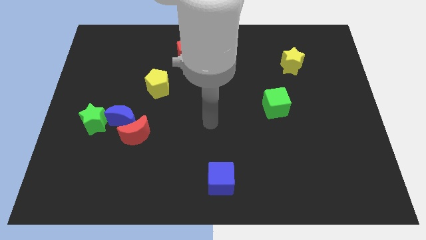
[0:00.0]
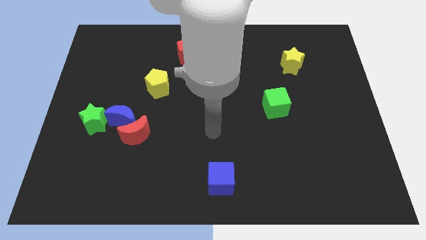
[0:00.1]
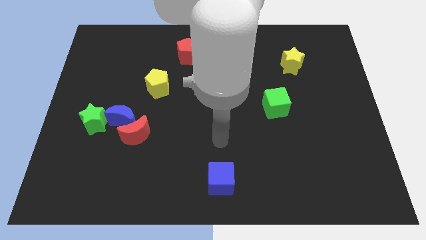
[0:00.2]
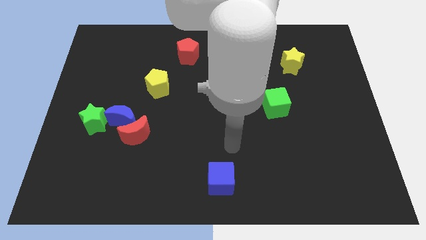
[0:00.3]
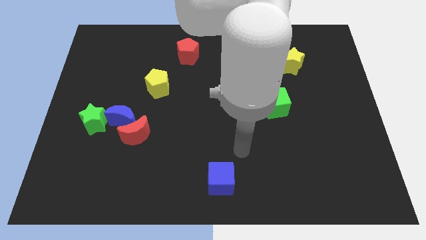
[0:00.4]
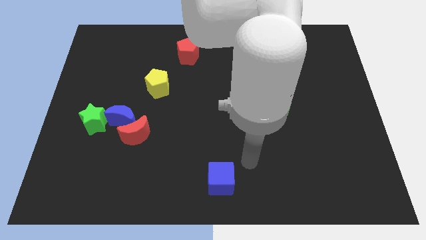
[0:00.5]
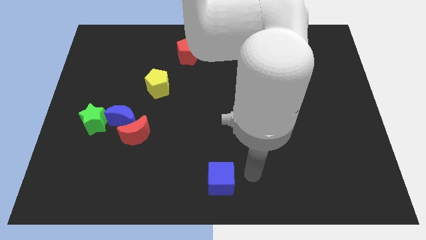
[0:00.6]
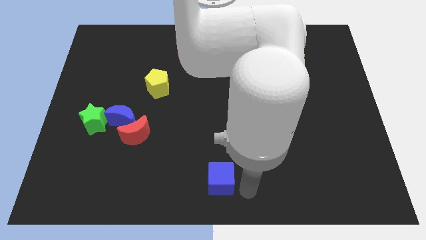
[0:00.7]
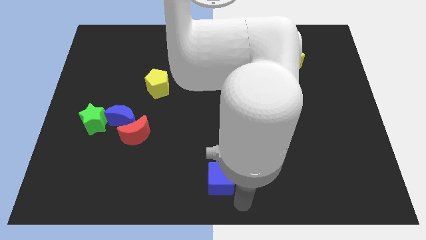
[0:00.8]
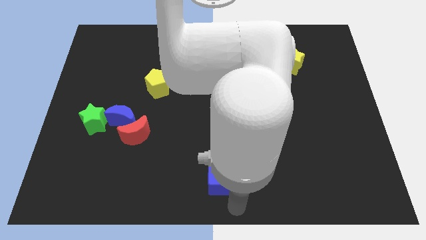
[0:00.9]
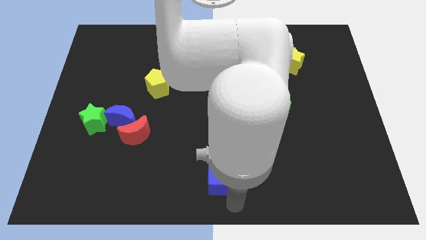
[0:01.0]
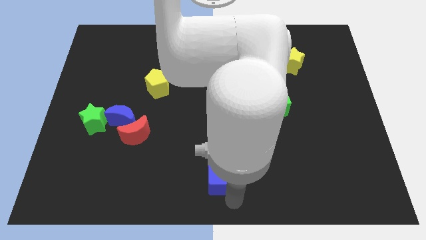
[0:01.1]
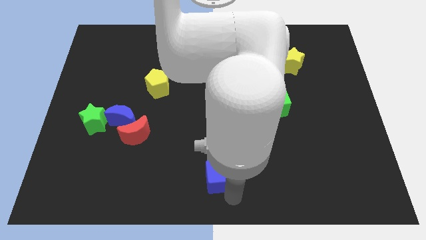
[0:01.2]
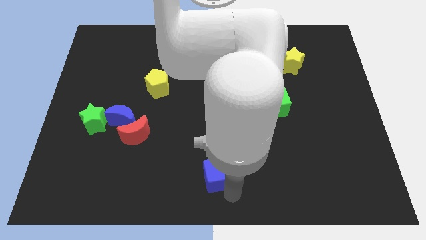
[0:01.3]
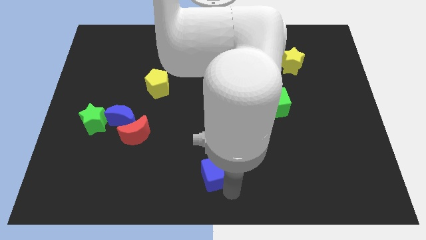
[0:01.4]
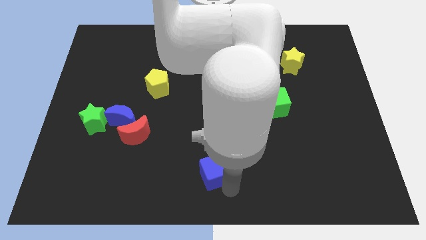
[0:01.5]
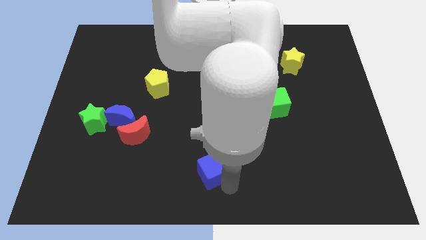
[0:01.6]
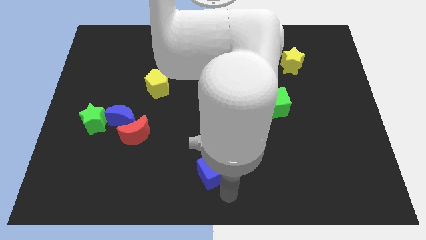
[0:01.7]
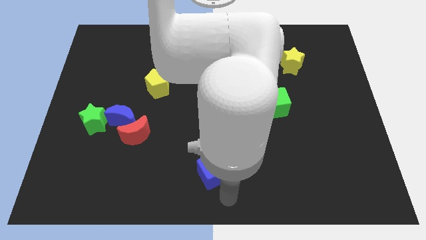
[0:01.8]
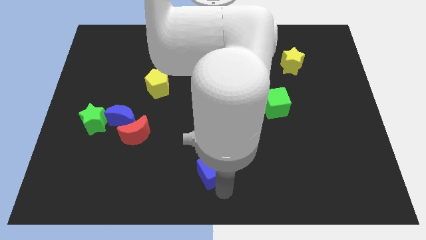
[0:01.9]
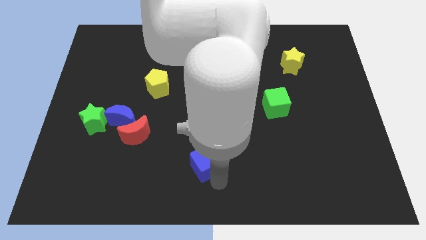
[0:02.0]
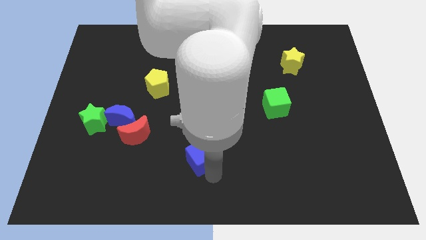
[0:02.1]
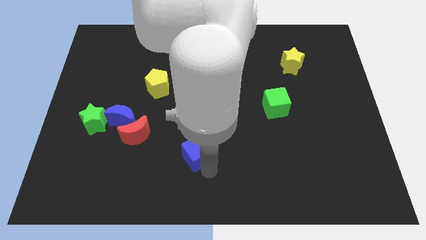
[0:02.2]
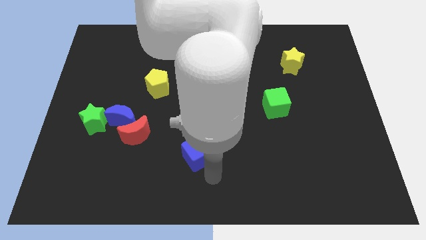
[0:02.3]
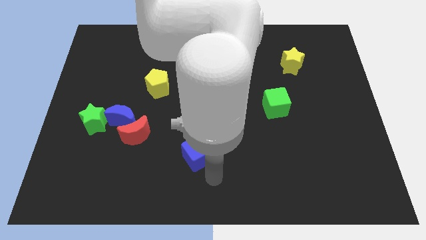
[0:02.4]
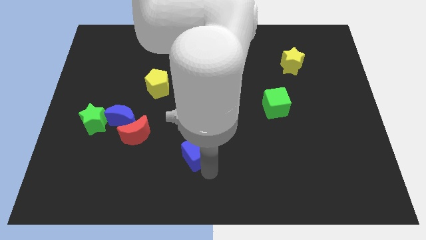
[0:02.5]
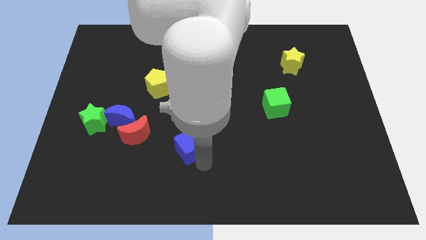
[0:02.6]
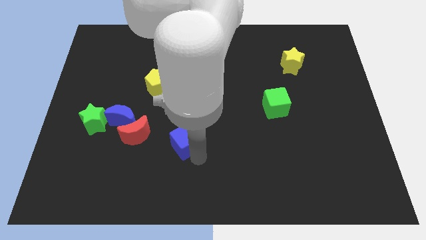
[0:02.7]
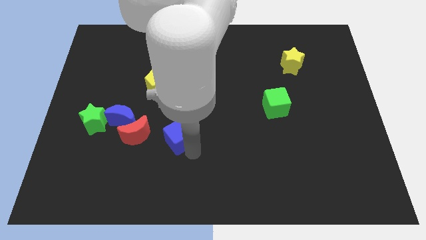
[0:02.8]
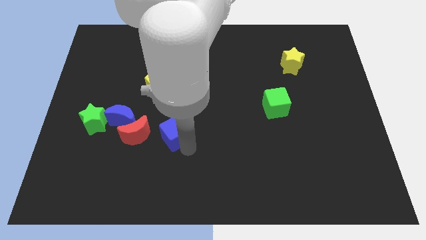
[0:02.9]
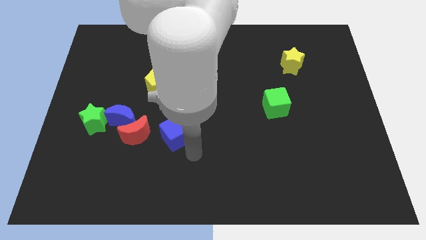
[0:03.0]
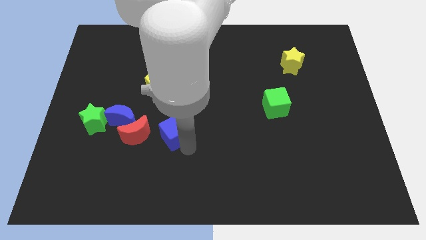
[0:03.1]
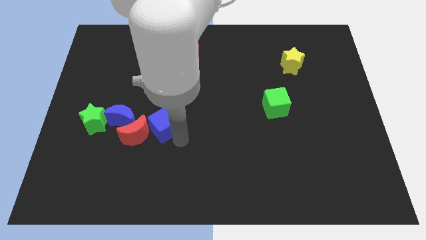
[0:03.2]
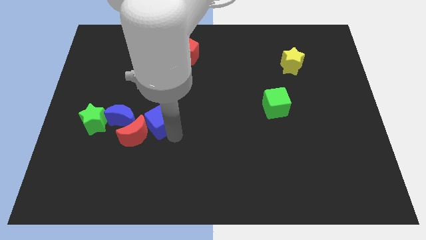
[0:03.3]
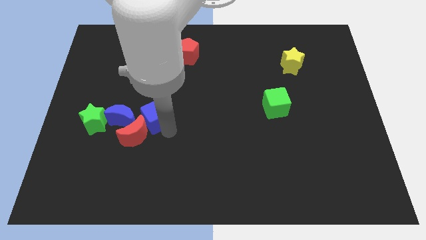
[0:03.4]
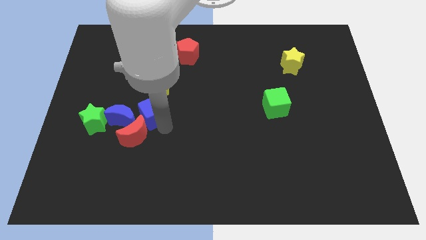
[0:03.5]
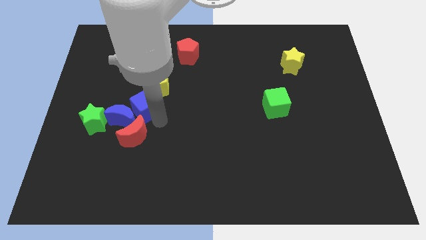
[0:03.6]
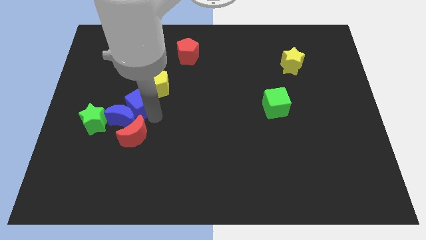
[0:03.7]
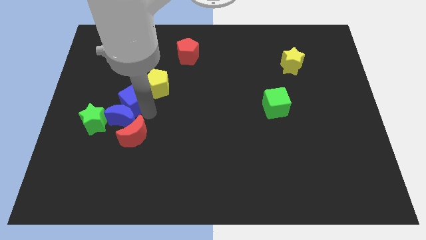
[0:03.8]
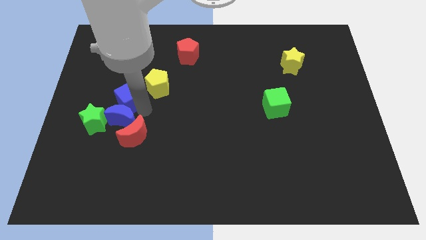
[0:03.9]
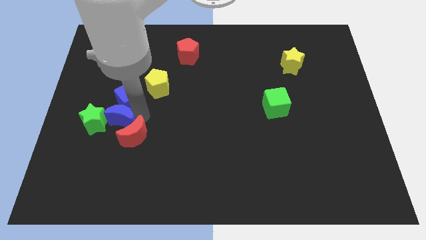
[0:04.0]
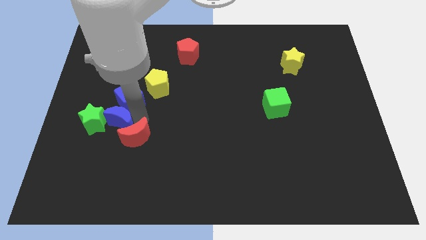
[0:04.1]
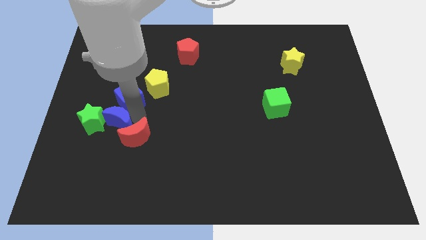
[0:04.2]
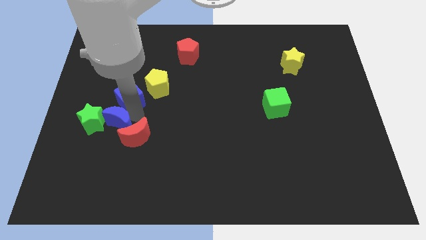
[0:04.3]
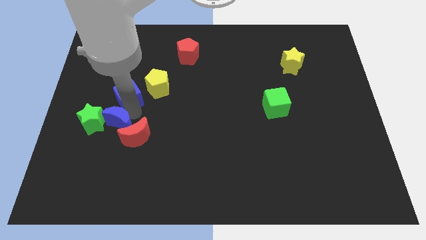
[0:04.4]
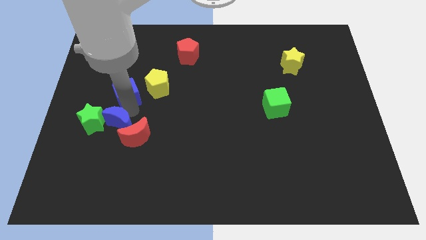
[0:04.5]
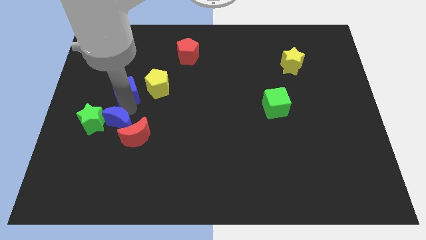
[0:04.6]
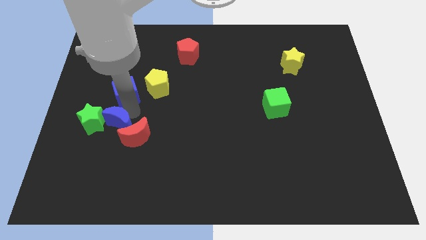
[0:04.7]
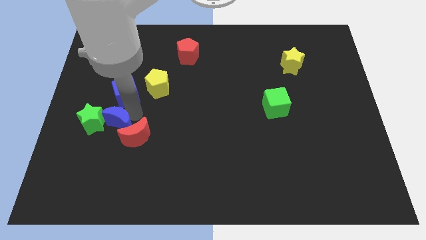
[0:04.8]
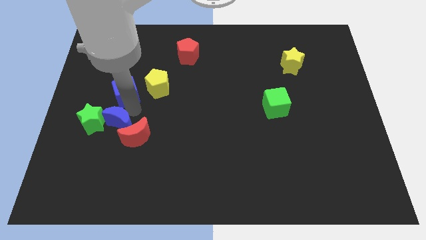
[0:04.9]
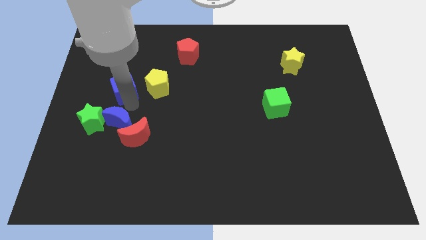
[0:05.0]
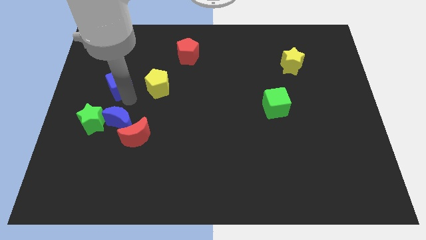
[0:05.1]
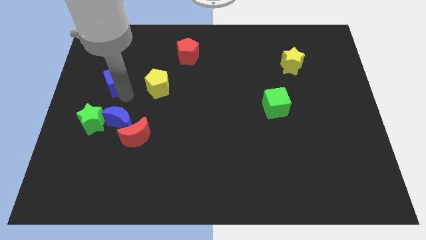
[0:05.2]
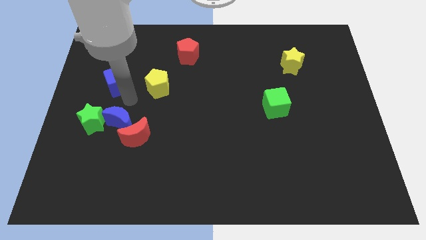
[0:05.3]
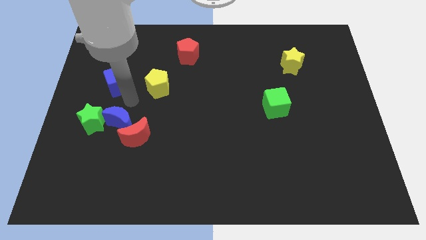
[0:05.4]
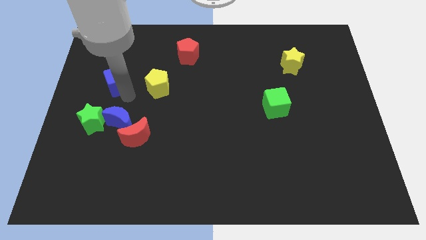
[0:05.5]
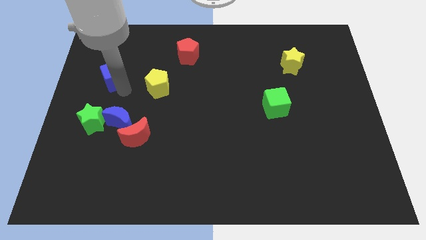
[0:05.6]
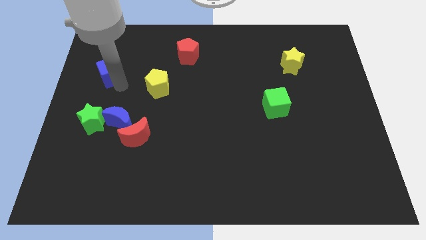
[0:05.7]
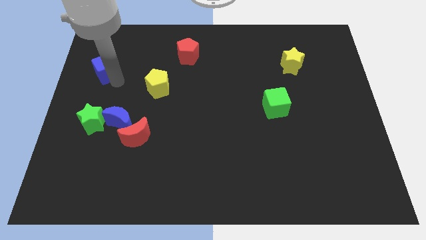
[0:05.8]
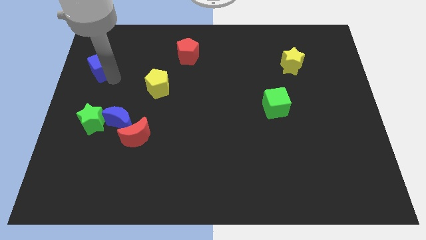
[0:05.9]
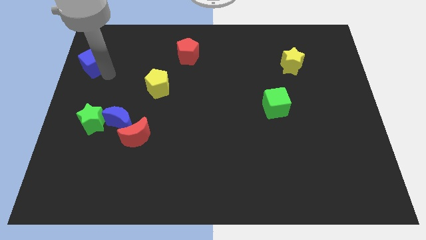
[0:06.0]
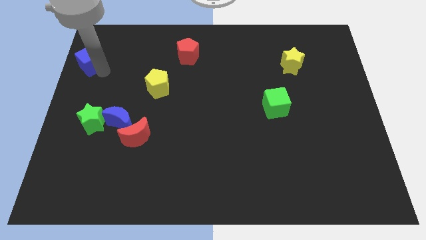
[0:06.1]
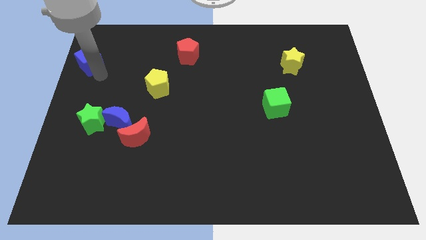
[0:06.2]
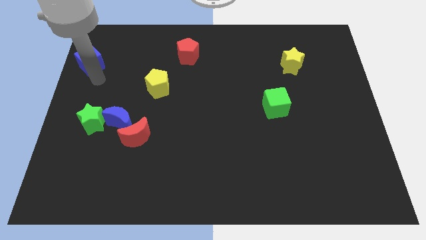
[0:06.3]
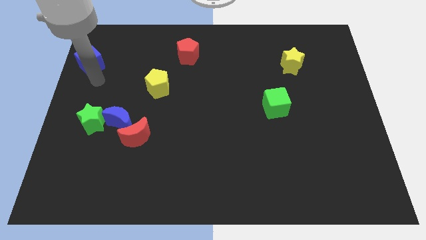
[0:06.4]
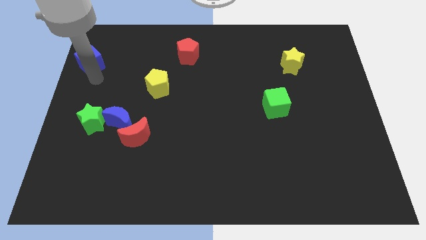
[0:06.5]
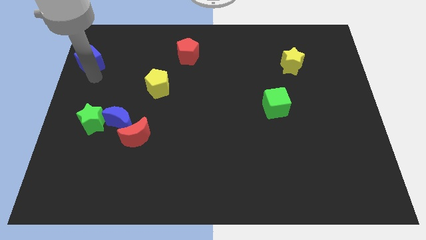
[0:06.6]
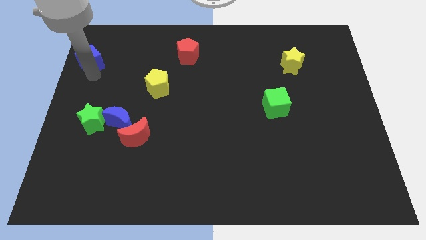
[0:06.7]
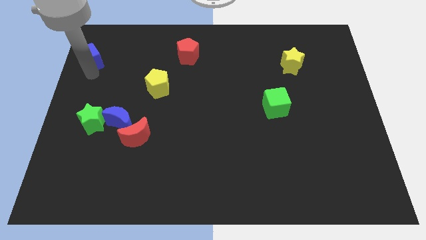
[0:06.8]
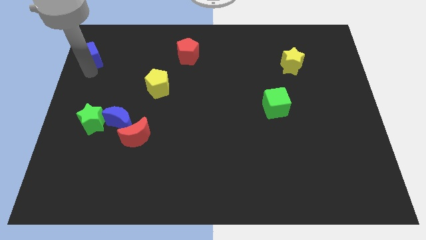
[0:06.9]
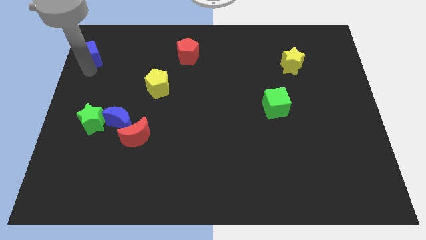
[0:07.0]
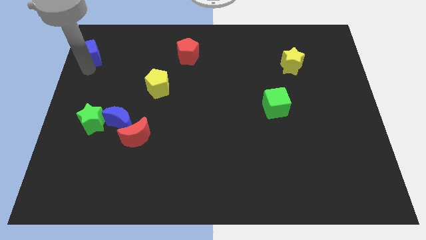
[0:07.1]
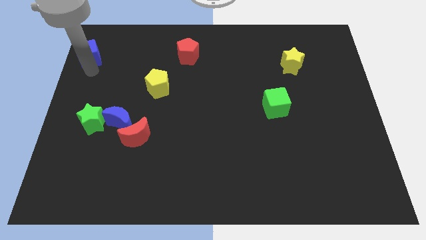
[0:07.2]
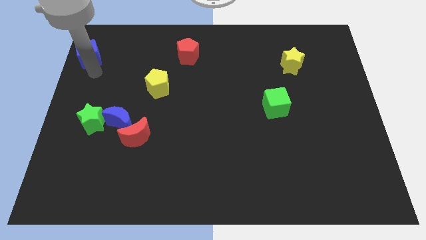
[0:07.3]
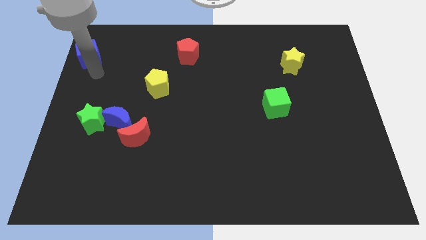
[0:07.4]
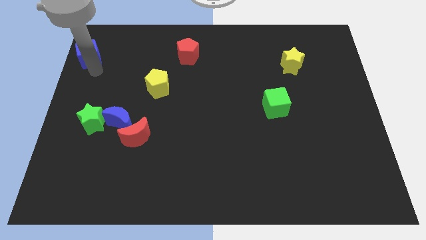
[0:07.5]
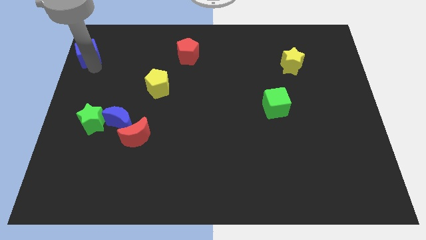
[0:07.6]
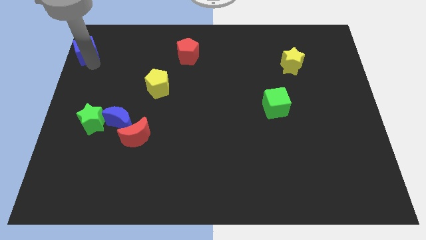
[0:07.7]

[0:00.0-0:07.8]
put the blue cube to the upper left corner
